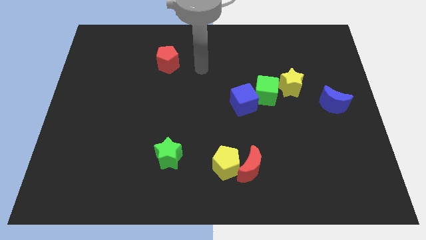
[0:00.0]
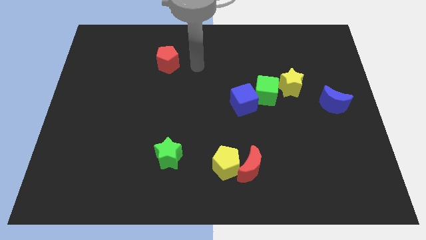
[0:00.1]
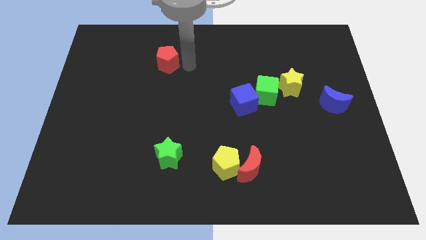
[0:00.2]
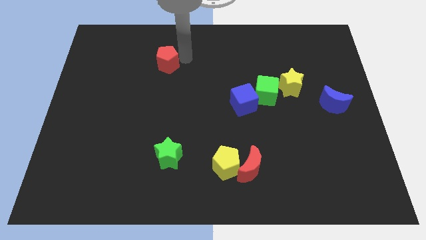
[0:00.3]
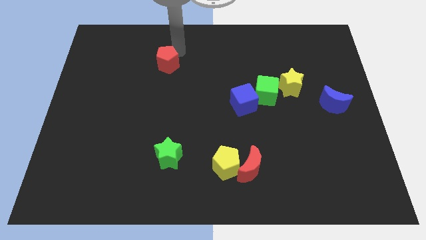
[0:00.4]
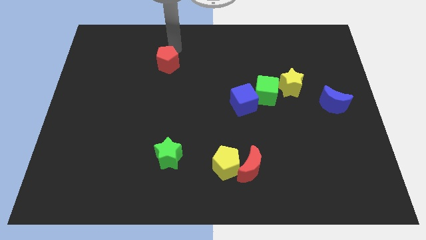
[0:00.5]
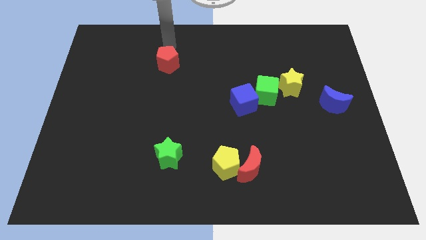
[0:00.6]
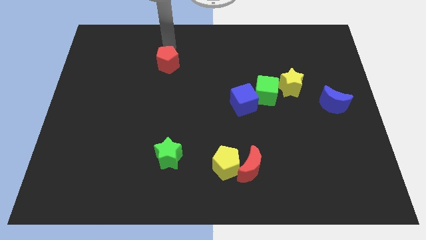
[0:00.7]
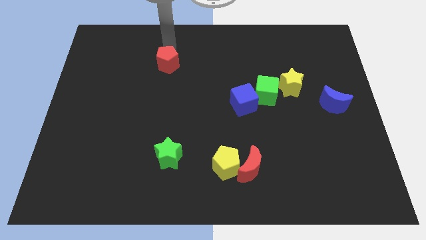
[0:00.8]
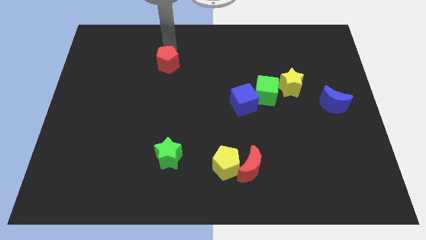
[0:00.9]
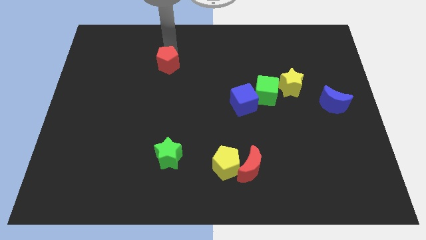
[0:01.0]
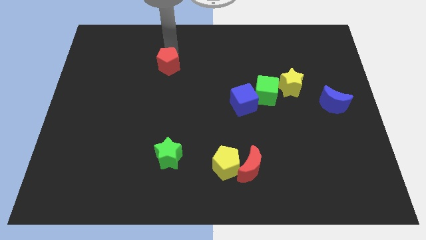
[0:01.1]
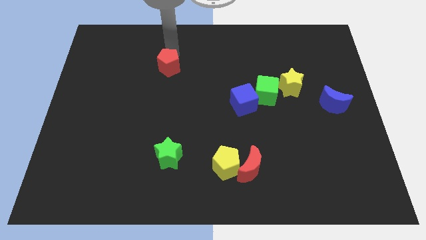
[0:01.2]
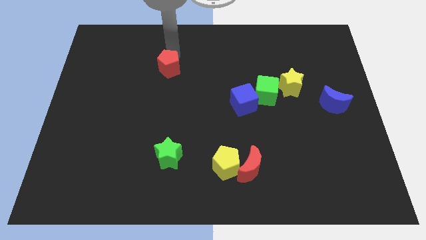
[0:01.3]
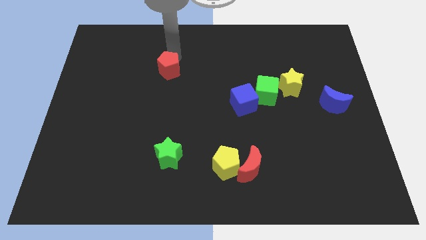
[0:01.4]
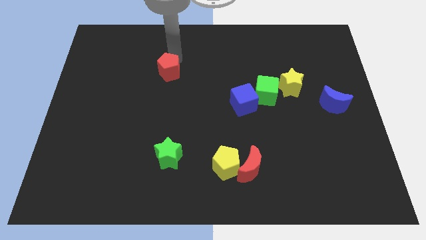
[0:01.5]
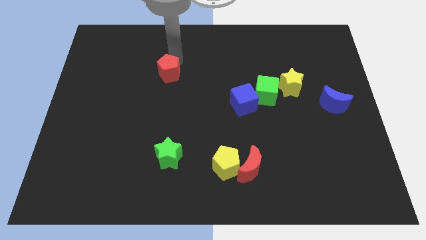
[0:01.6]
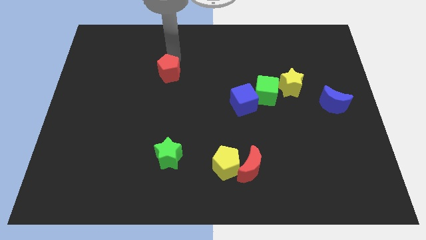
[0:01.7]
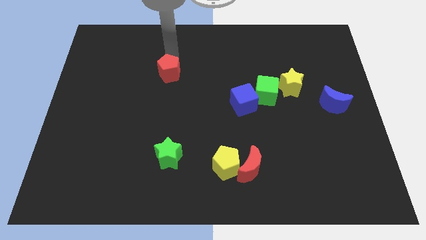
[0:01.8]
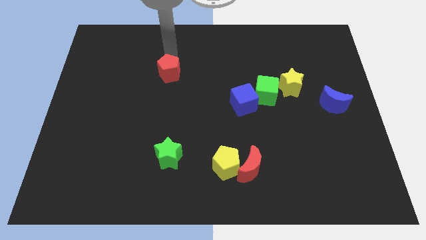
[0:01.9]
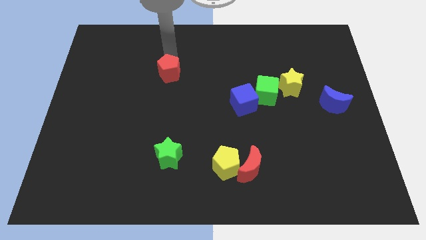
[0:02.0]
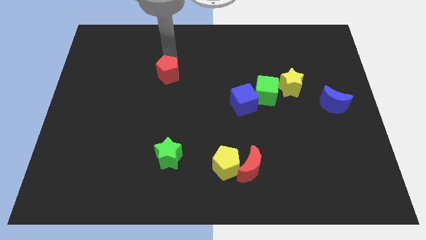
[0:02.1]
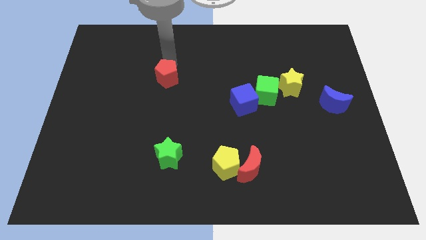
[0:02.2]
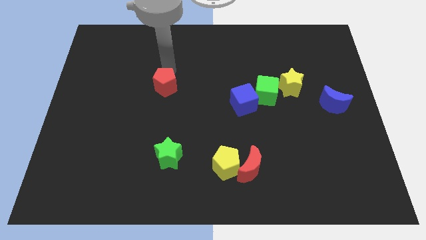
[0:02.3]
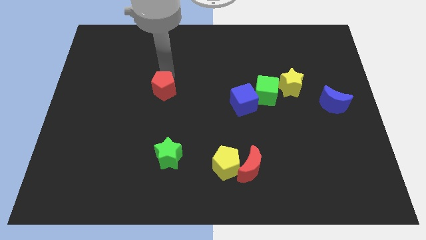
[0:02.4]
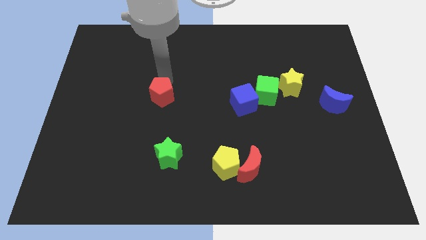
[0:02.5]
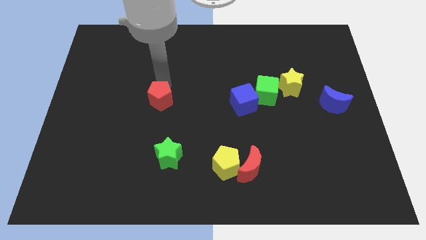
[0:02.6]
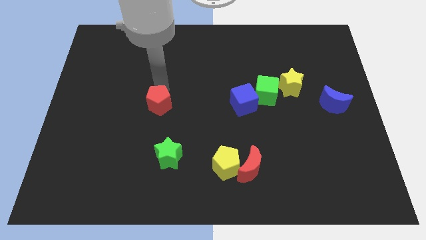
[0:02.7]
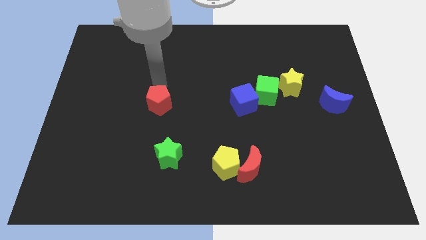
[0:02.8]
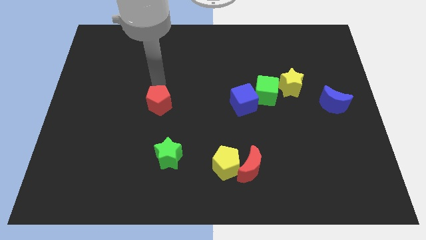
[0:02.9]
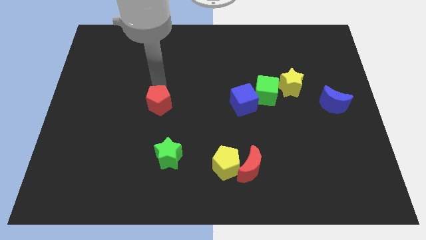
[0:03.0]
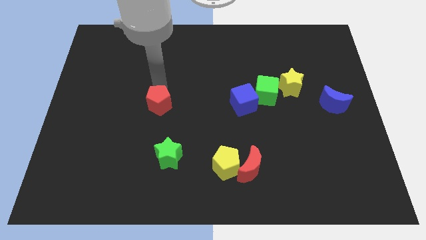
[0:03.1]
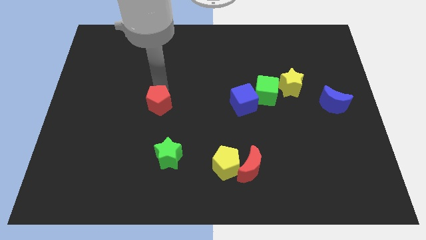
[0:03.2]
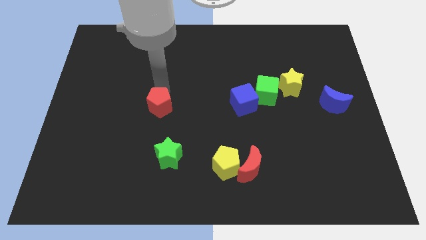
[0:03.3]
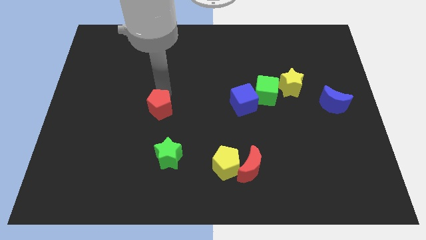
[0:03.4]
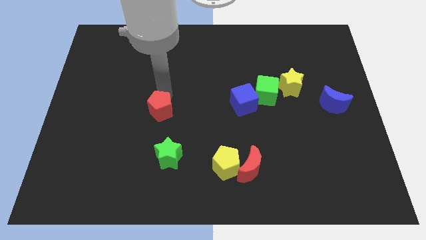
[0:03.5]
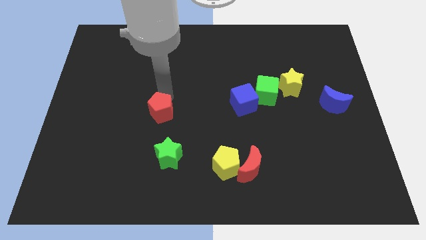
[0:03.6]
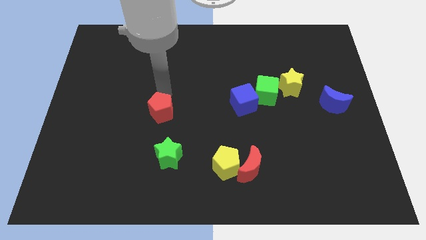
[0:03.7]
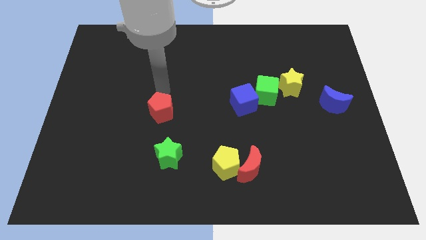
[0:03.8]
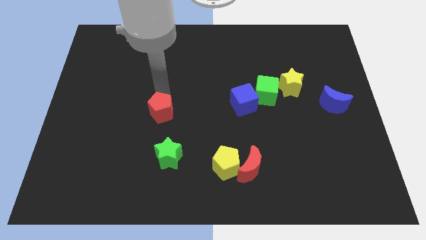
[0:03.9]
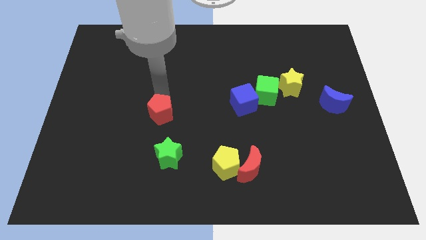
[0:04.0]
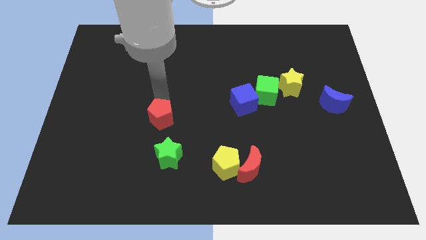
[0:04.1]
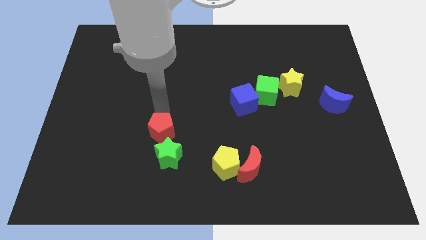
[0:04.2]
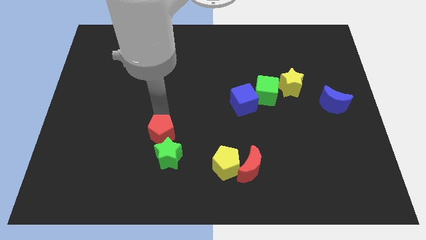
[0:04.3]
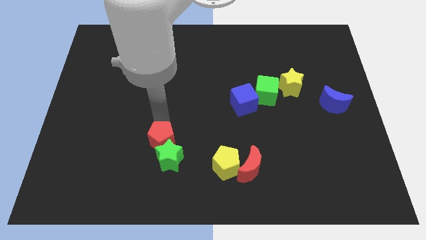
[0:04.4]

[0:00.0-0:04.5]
move the red pentagon close to the green star

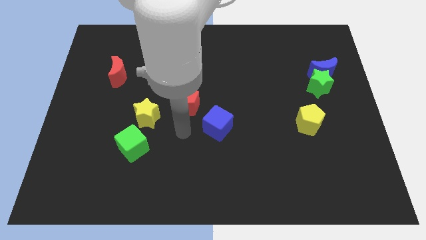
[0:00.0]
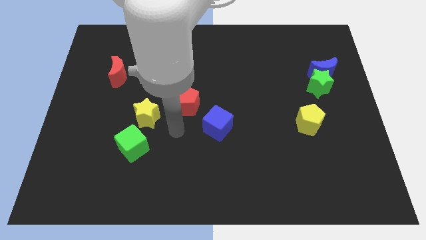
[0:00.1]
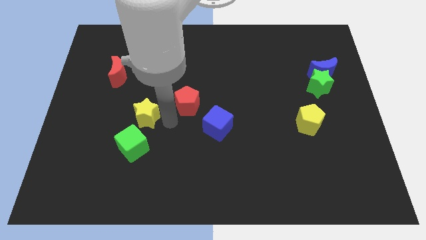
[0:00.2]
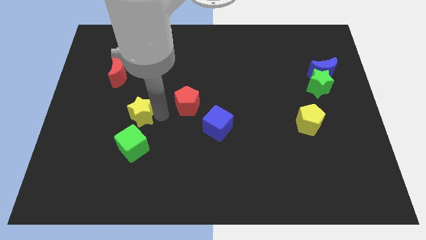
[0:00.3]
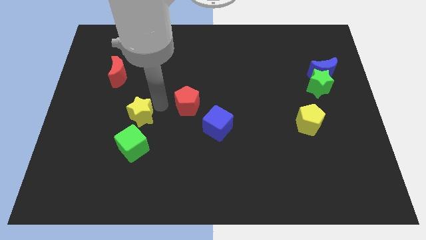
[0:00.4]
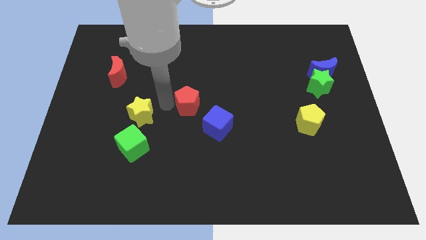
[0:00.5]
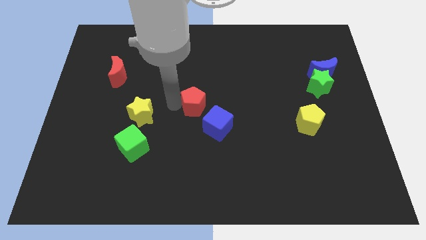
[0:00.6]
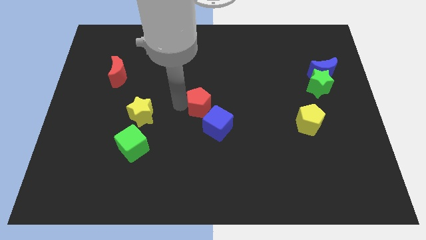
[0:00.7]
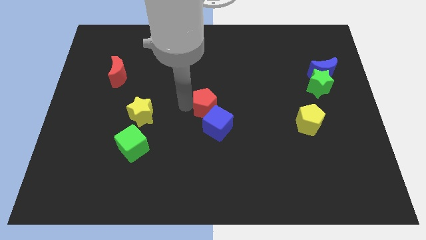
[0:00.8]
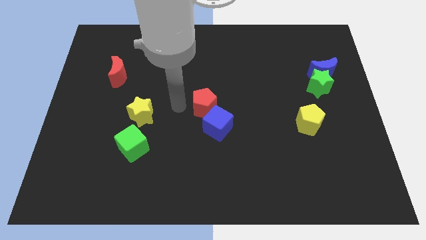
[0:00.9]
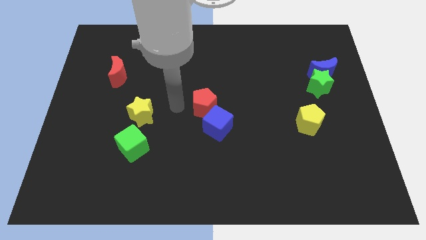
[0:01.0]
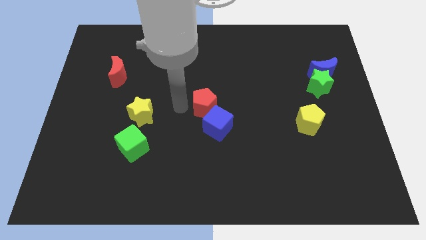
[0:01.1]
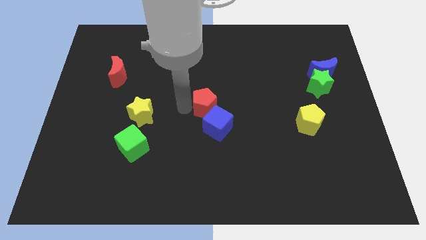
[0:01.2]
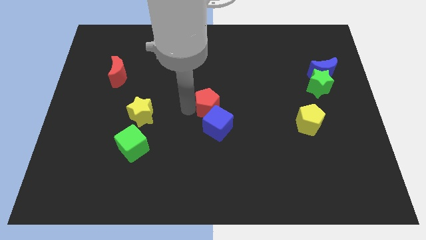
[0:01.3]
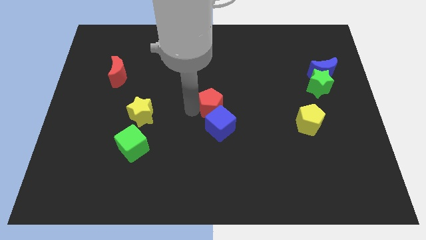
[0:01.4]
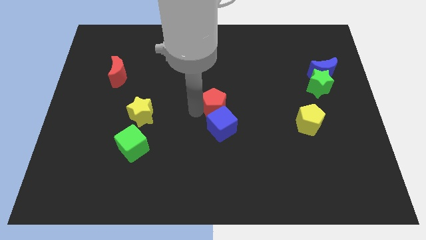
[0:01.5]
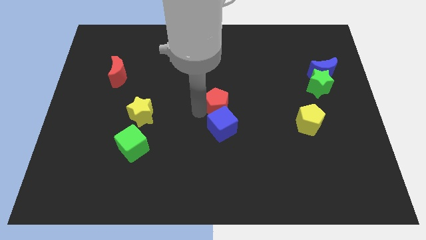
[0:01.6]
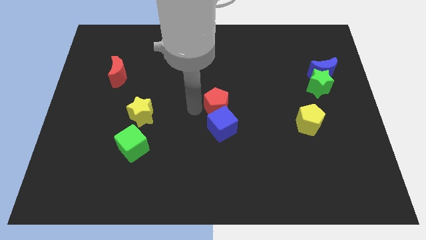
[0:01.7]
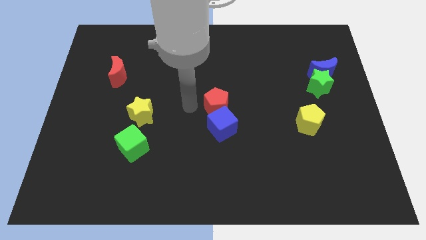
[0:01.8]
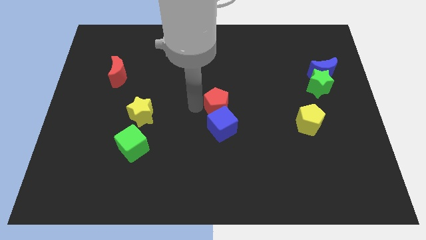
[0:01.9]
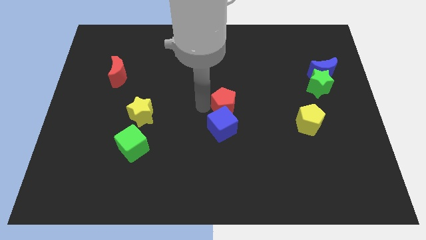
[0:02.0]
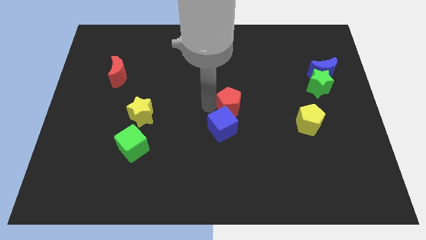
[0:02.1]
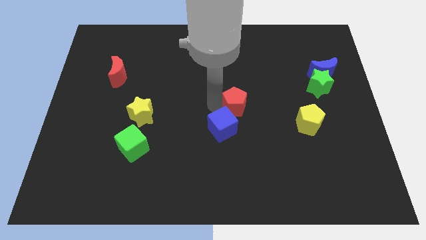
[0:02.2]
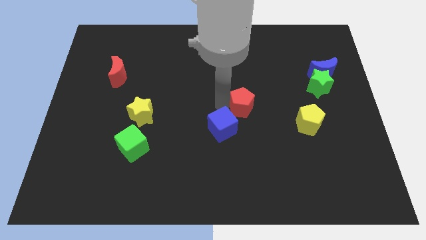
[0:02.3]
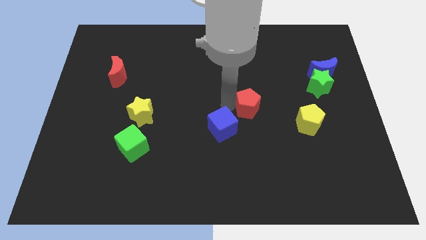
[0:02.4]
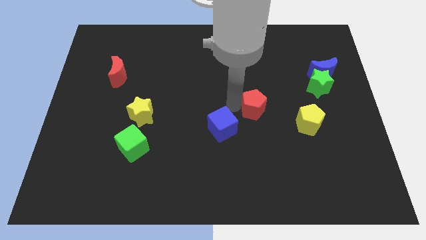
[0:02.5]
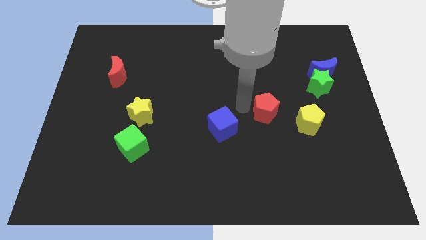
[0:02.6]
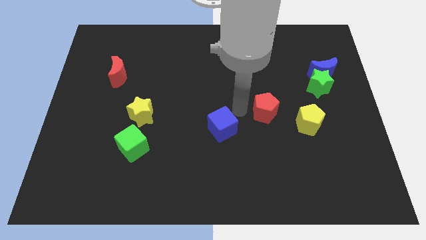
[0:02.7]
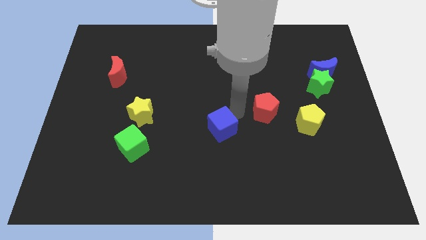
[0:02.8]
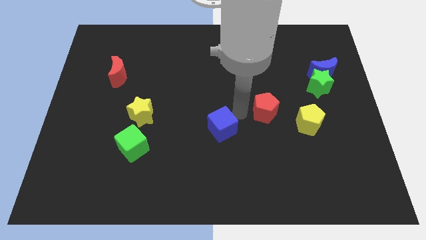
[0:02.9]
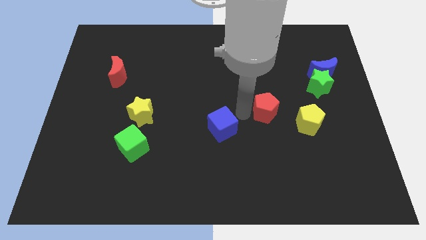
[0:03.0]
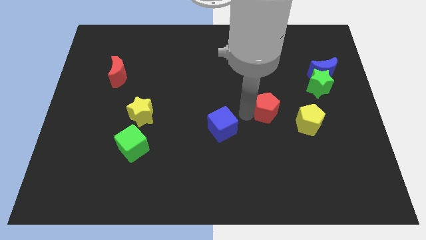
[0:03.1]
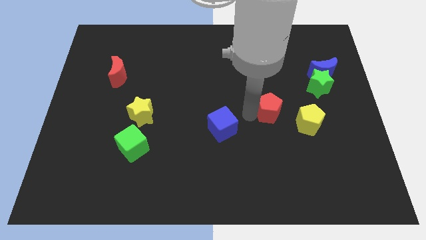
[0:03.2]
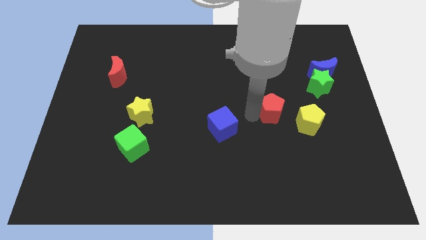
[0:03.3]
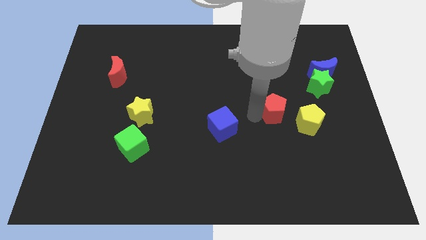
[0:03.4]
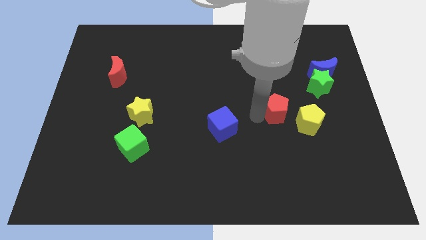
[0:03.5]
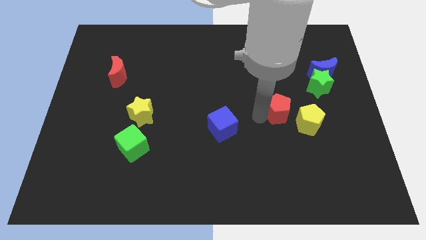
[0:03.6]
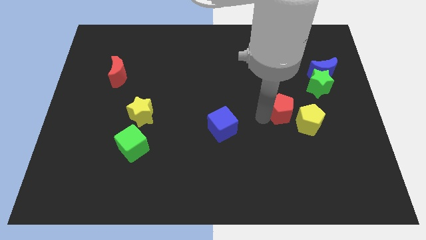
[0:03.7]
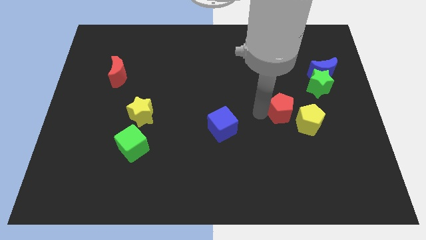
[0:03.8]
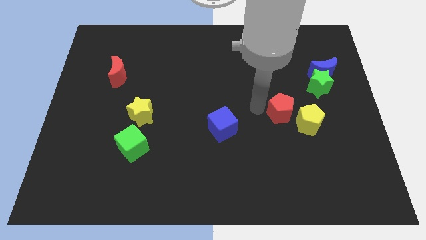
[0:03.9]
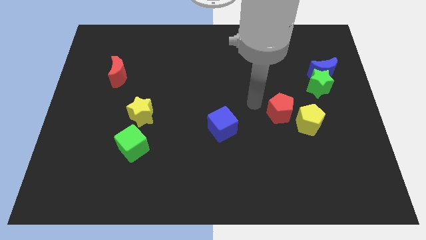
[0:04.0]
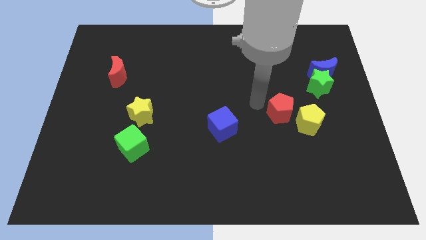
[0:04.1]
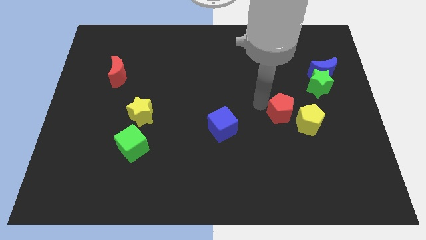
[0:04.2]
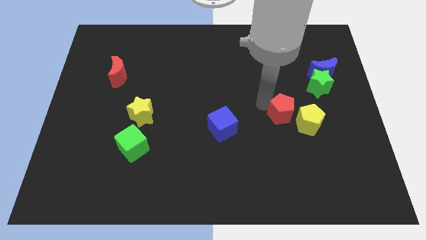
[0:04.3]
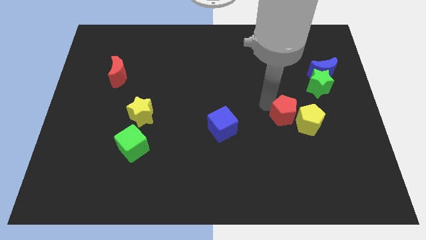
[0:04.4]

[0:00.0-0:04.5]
put the red pentagon close to the yellow pentagon
